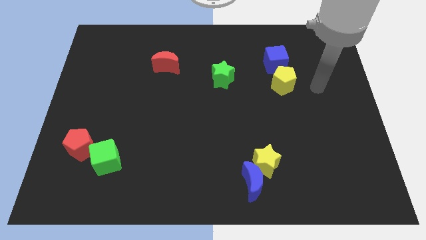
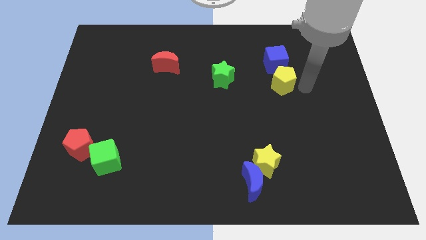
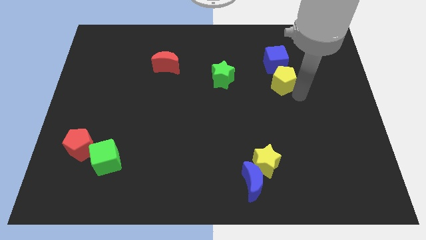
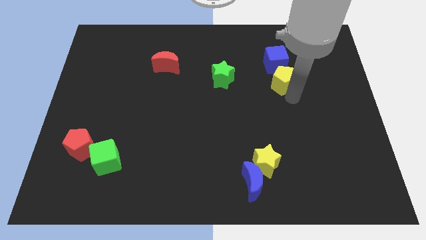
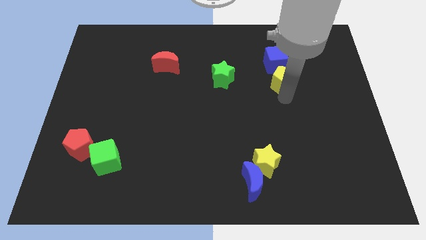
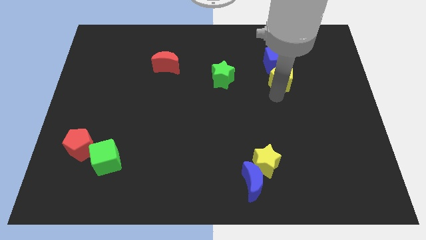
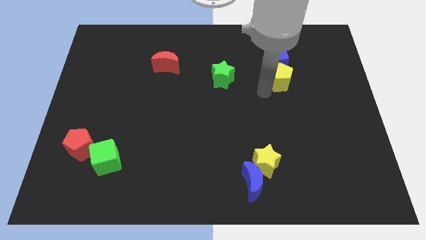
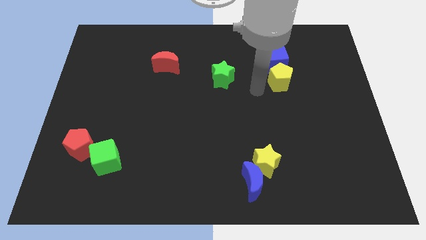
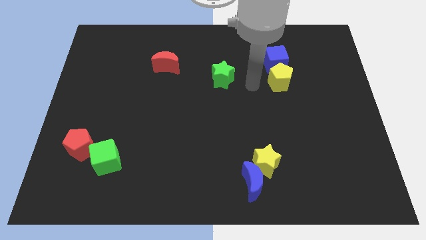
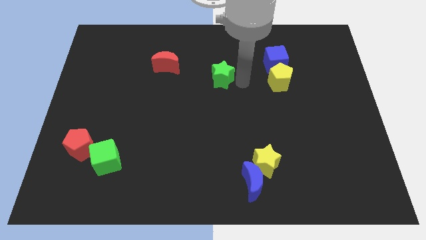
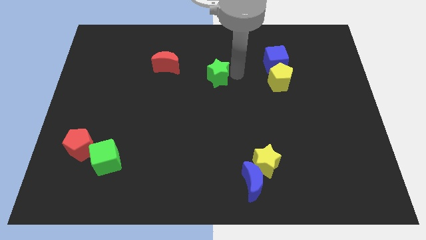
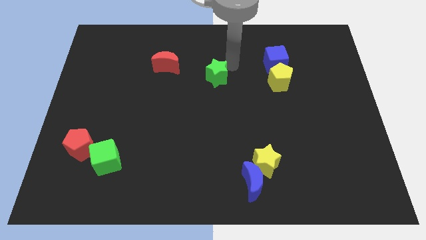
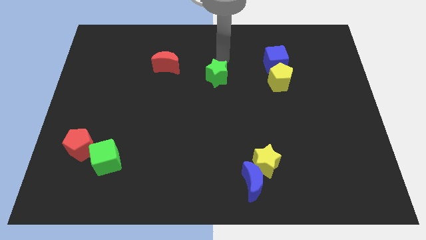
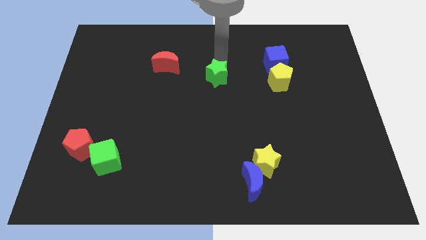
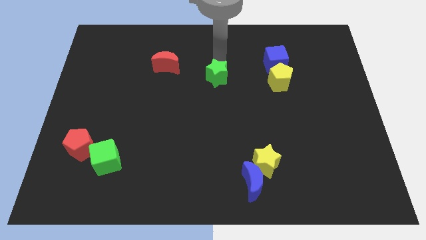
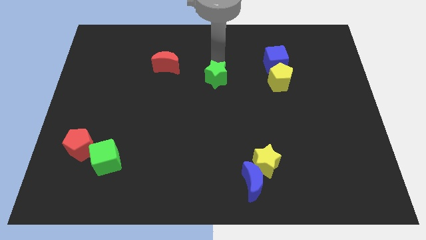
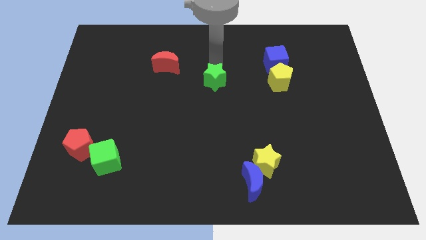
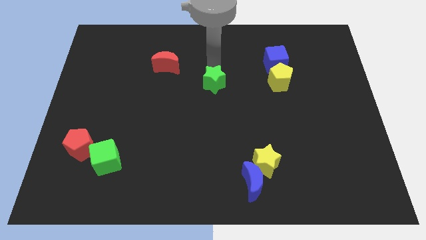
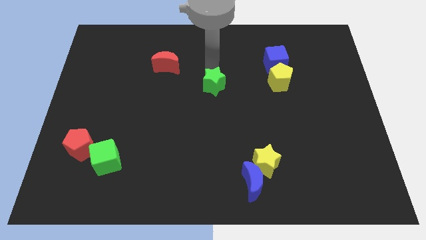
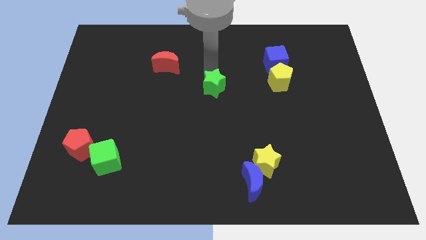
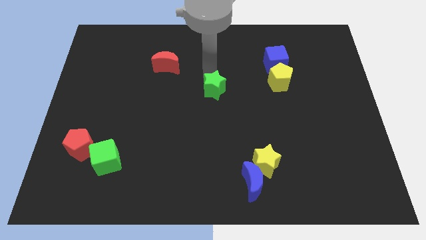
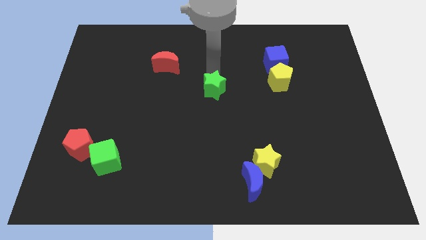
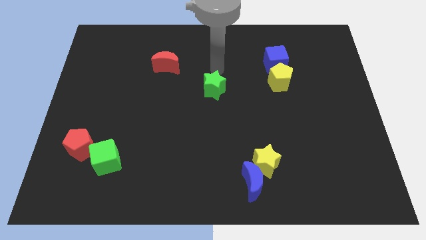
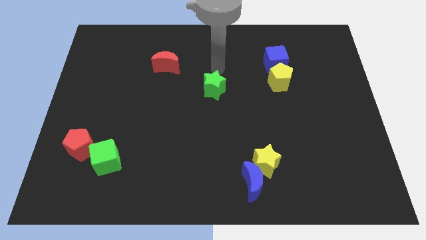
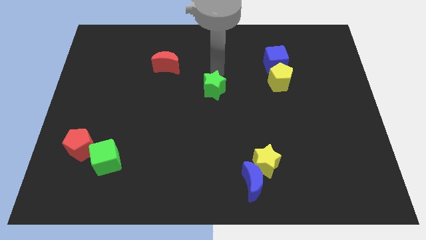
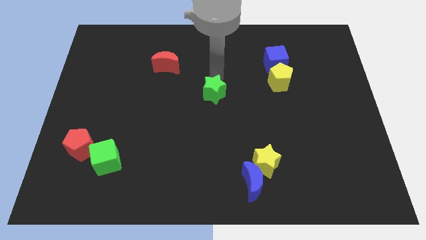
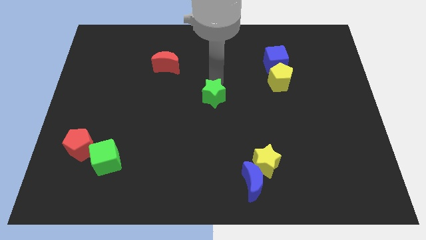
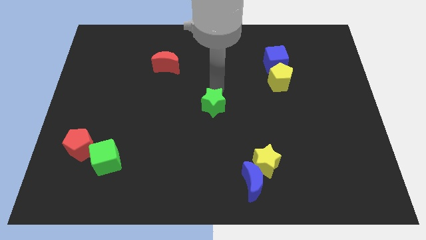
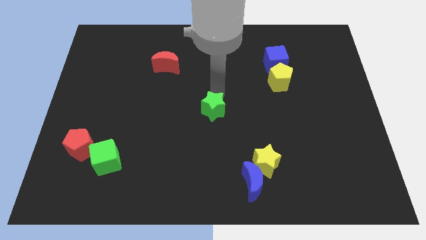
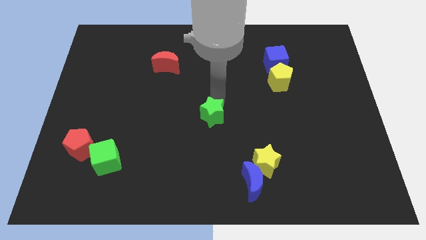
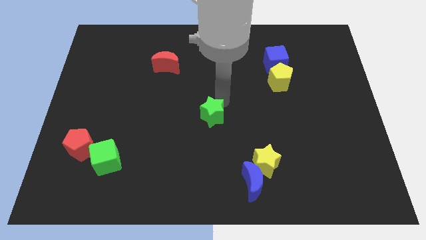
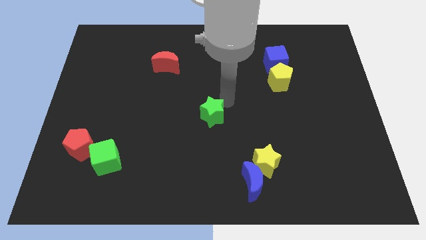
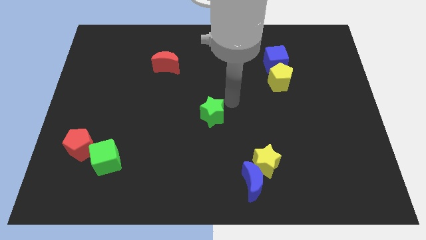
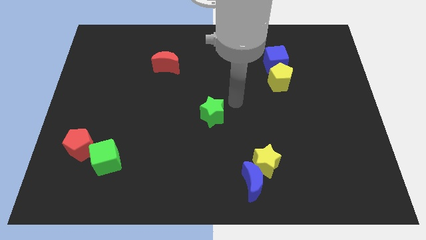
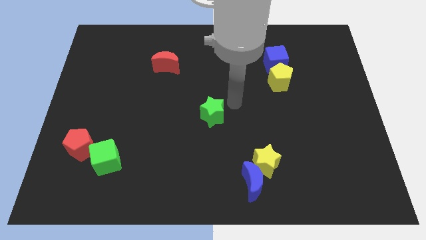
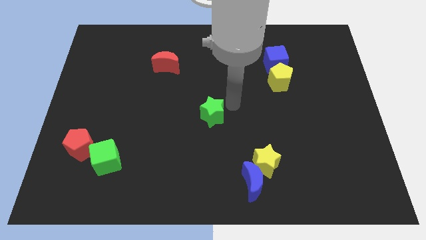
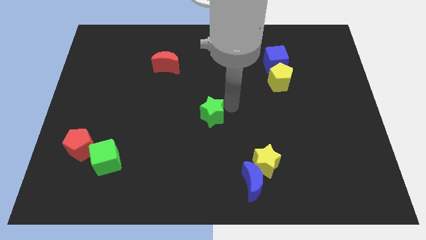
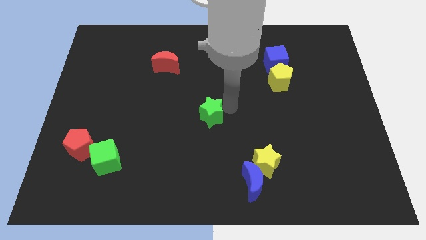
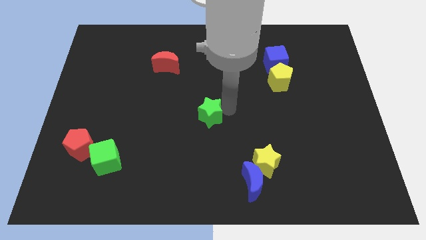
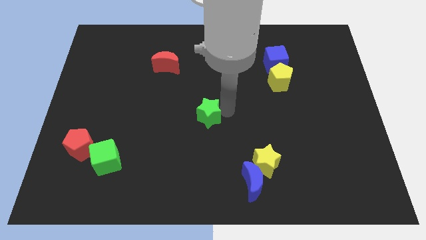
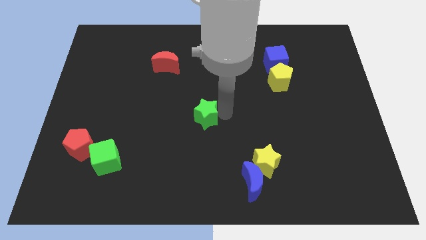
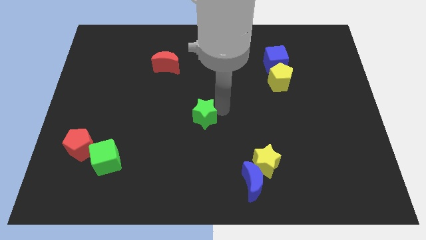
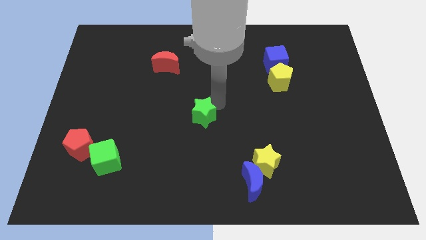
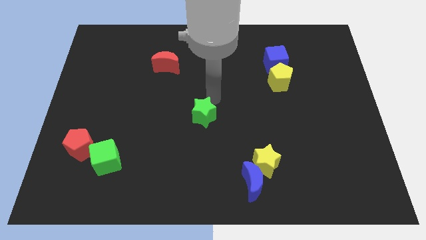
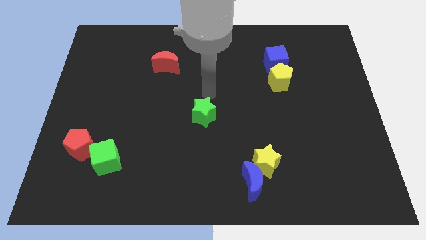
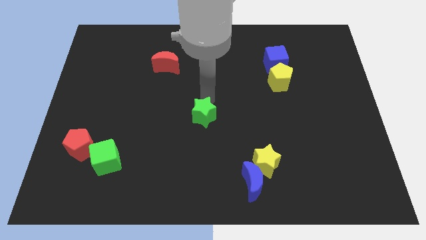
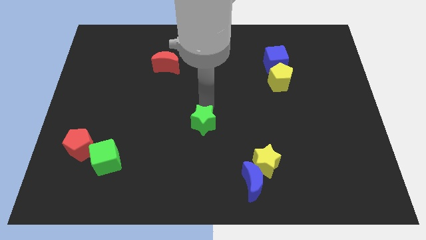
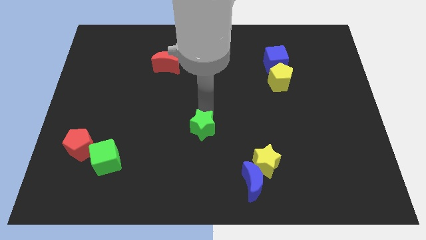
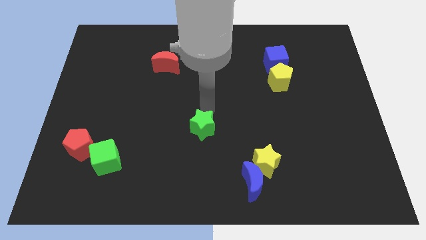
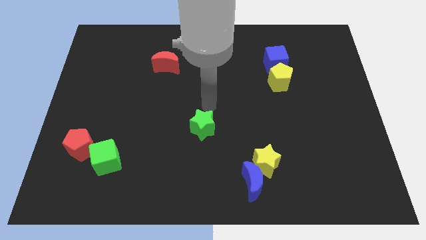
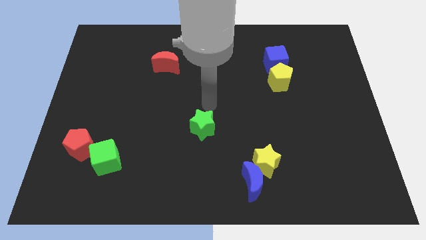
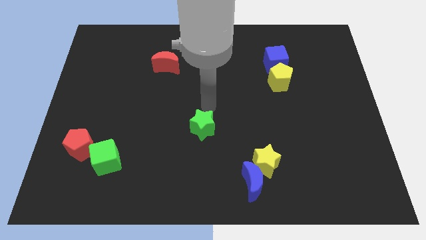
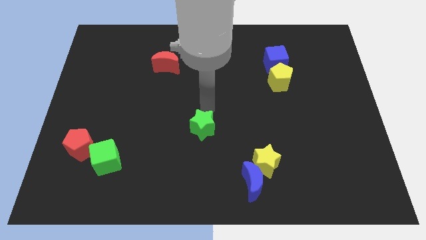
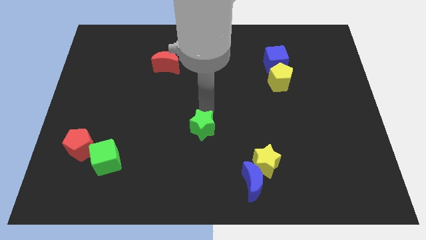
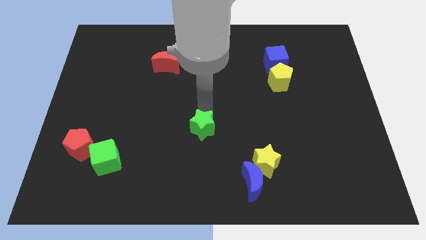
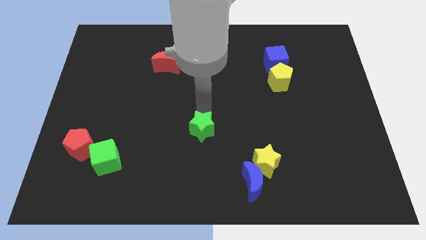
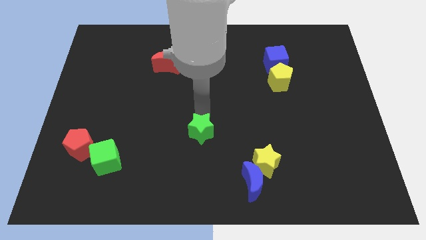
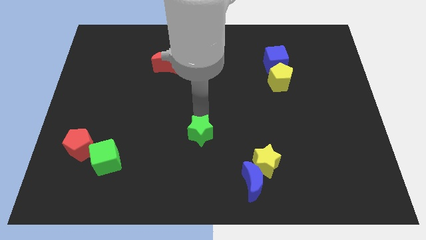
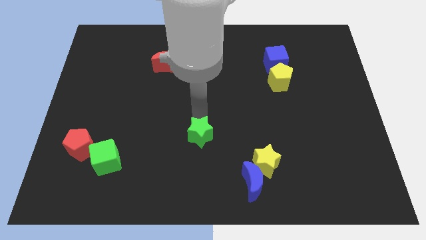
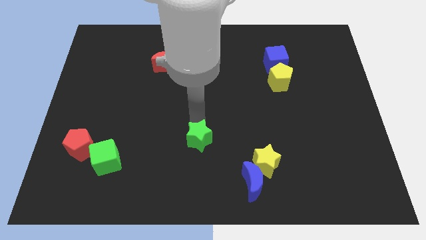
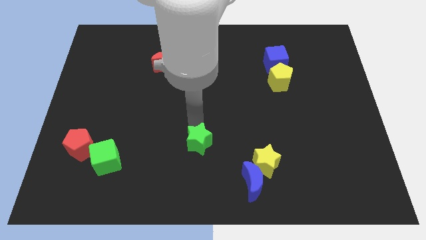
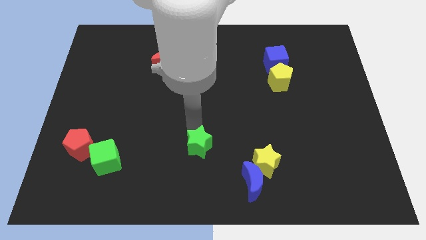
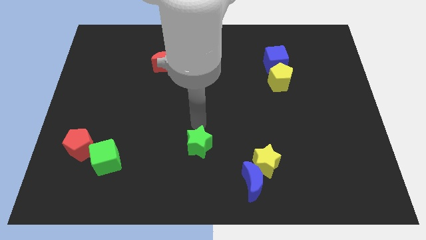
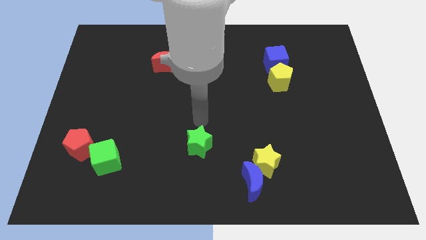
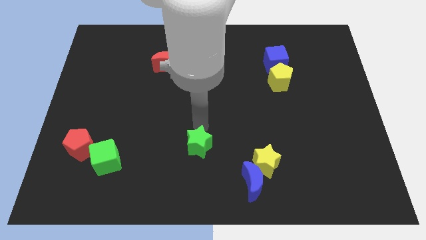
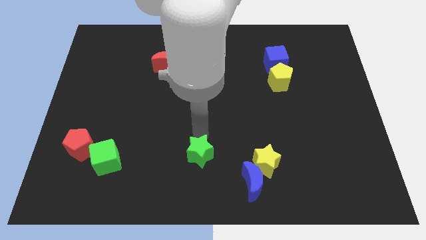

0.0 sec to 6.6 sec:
put the green star to the bottom side
